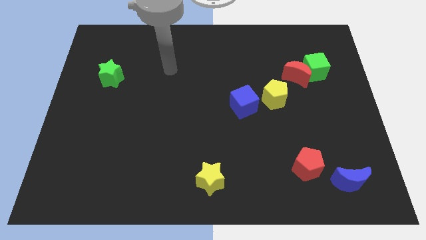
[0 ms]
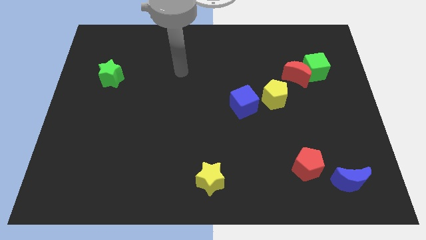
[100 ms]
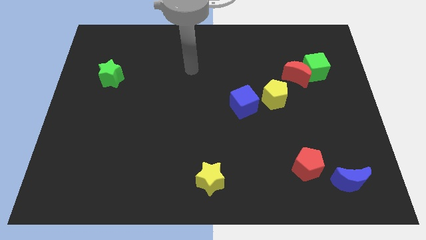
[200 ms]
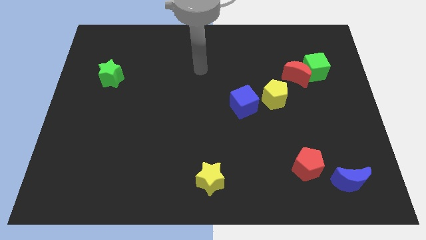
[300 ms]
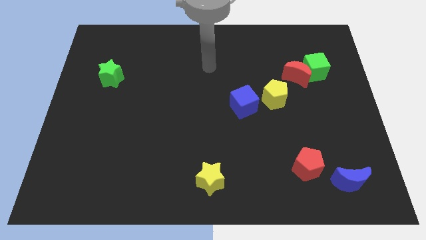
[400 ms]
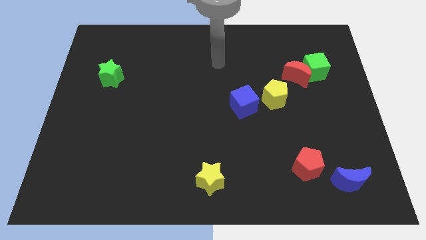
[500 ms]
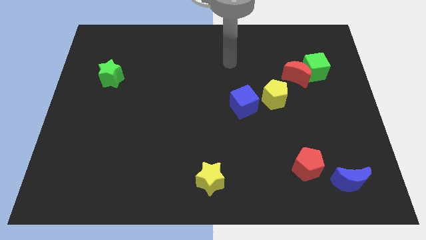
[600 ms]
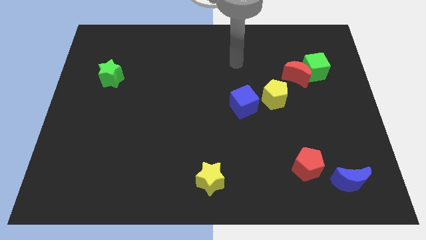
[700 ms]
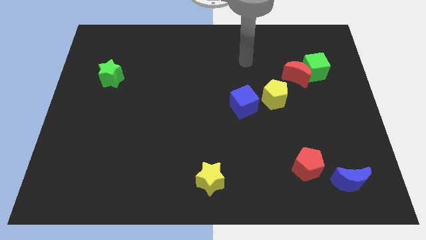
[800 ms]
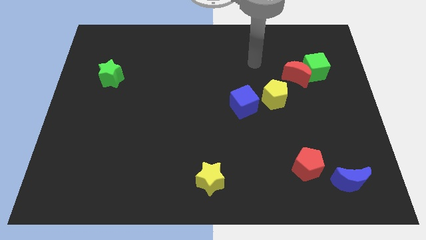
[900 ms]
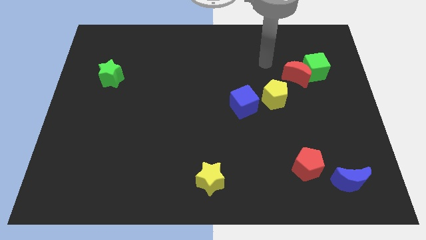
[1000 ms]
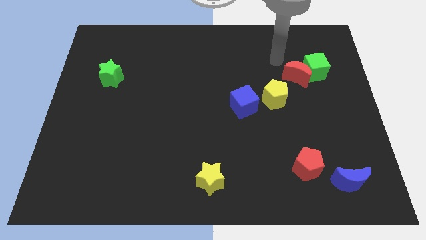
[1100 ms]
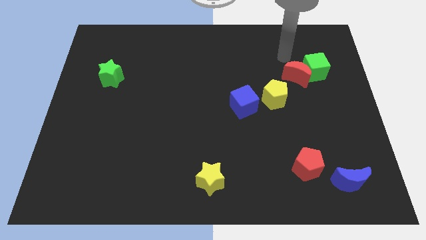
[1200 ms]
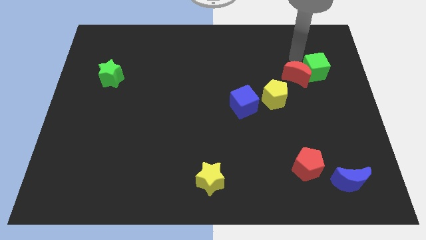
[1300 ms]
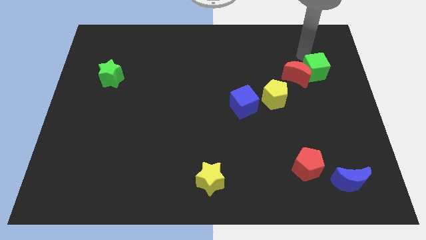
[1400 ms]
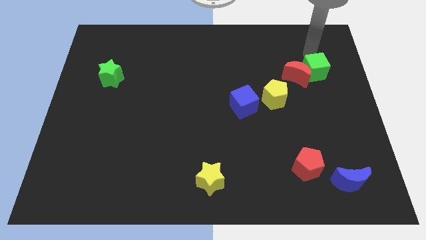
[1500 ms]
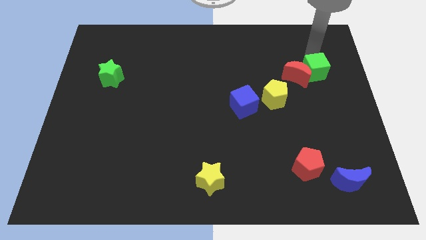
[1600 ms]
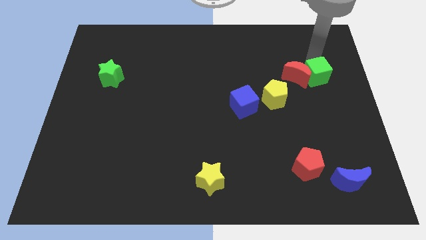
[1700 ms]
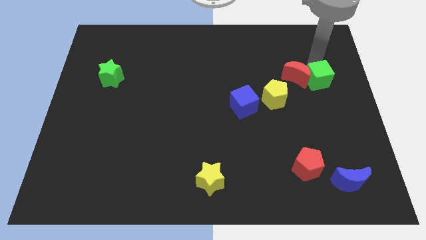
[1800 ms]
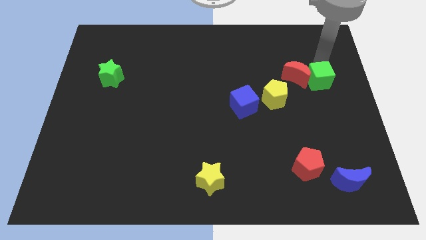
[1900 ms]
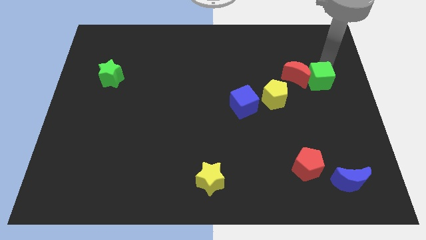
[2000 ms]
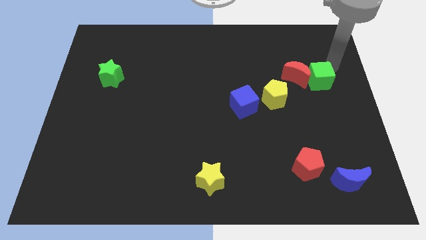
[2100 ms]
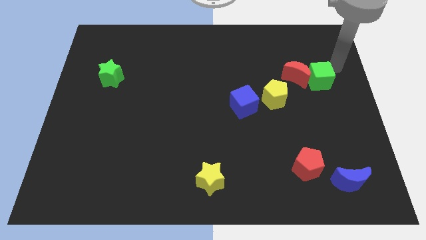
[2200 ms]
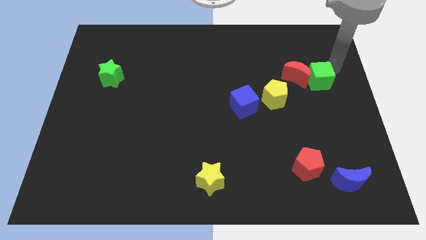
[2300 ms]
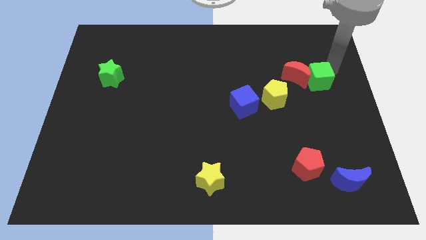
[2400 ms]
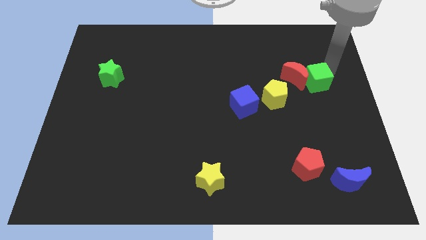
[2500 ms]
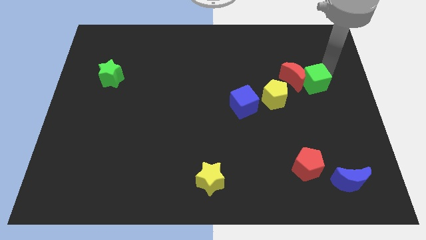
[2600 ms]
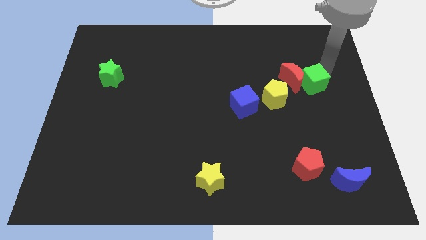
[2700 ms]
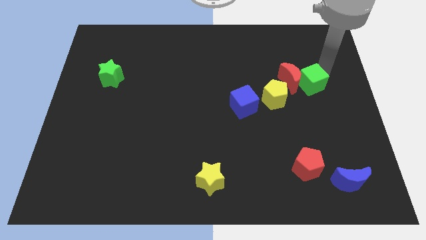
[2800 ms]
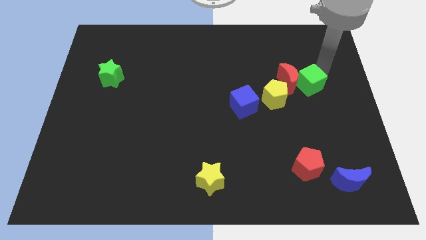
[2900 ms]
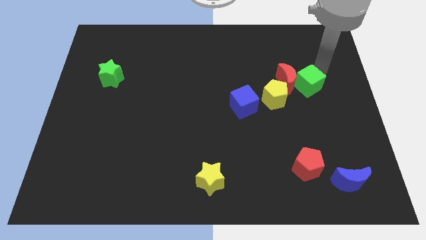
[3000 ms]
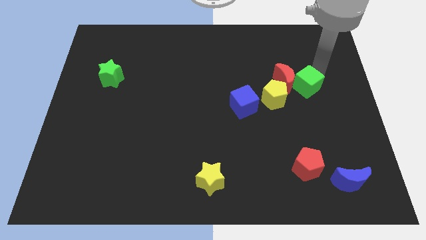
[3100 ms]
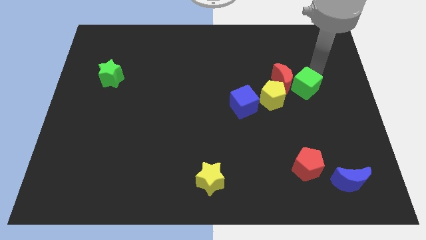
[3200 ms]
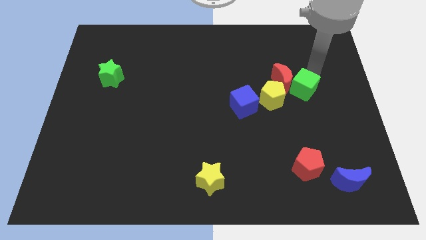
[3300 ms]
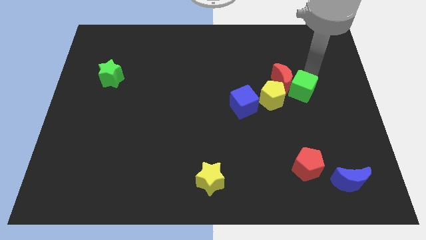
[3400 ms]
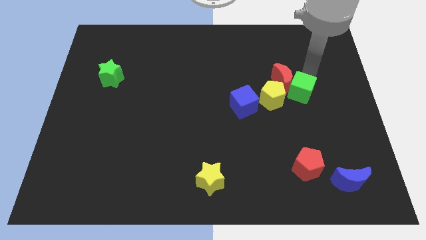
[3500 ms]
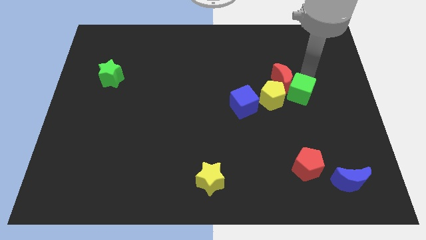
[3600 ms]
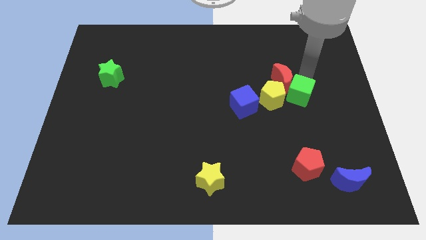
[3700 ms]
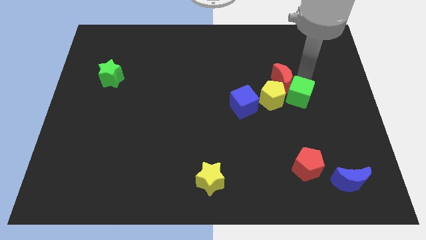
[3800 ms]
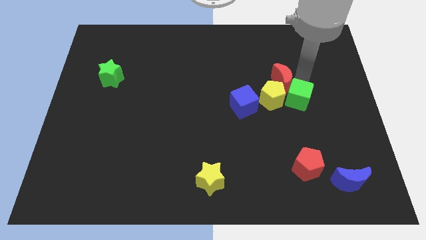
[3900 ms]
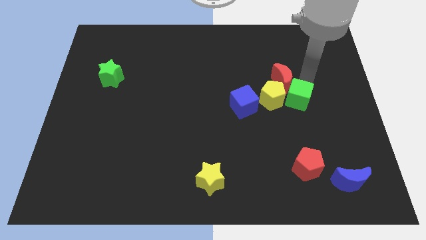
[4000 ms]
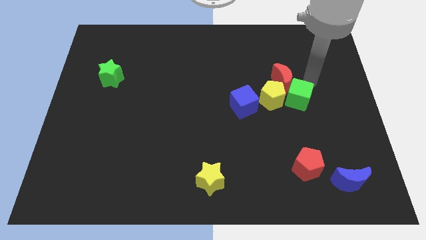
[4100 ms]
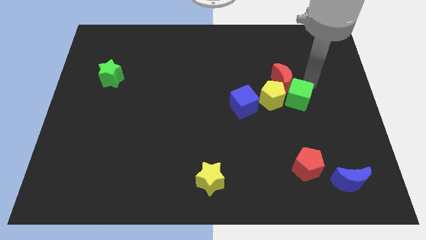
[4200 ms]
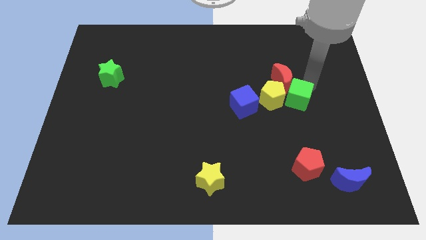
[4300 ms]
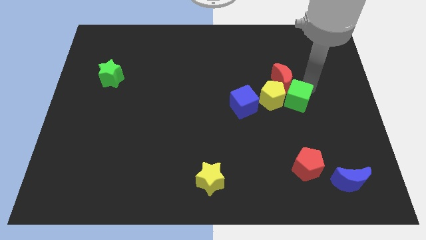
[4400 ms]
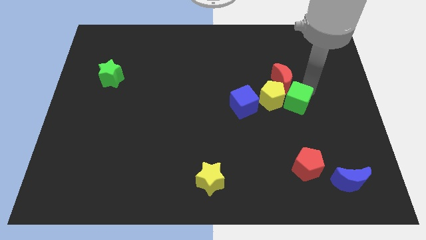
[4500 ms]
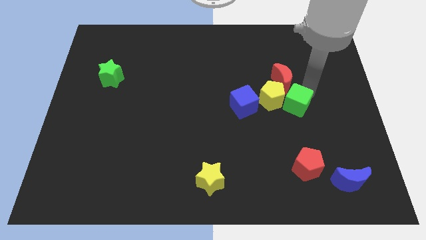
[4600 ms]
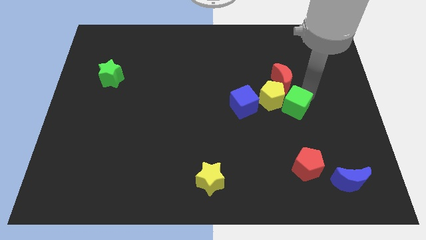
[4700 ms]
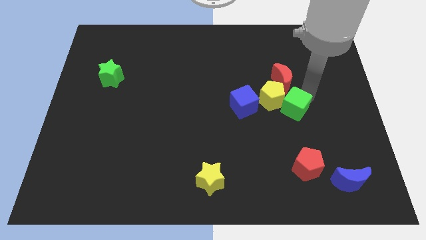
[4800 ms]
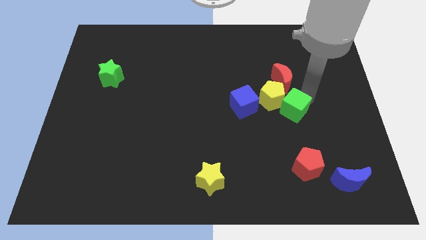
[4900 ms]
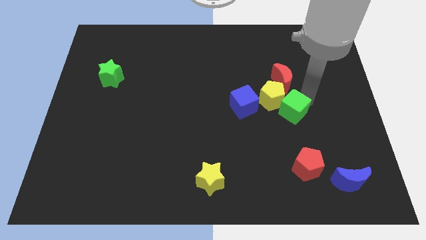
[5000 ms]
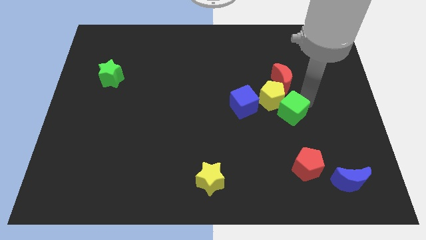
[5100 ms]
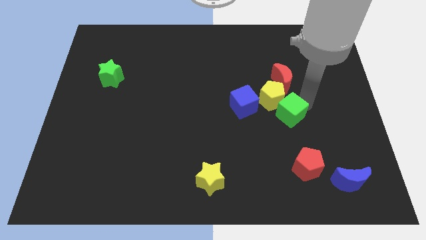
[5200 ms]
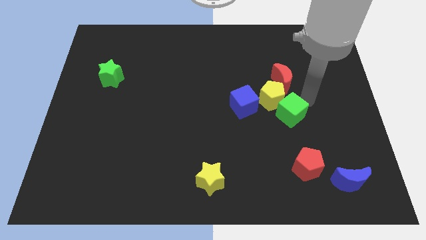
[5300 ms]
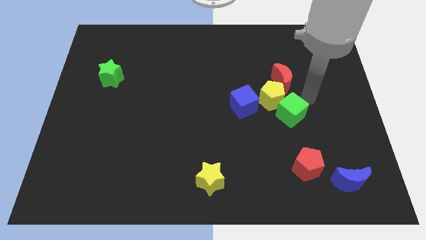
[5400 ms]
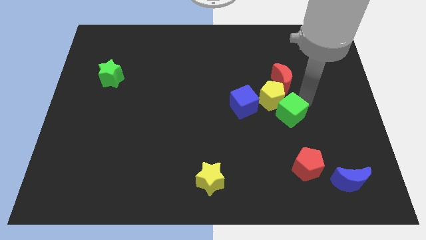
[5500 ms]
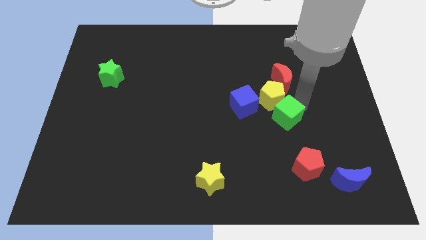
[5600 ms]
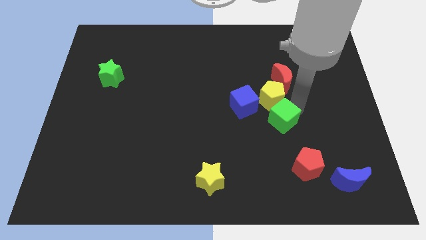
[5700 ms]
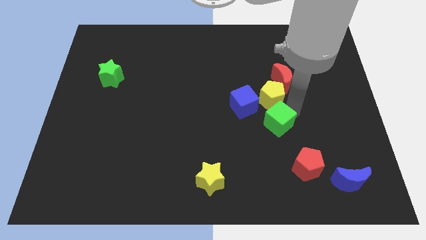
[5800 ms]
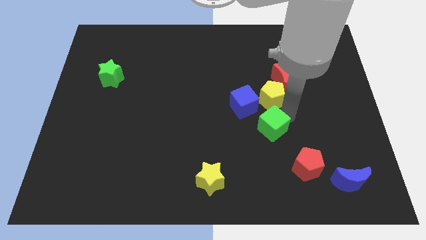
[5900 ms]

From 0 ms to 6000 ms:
move the green cube down and left diagonally

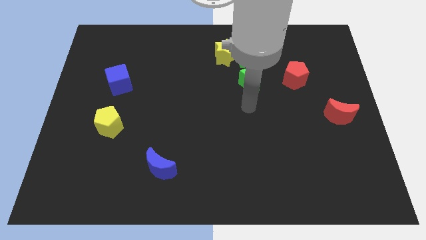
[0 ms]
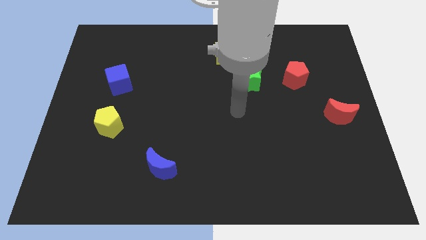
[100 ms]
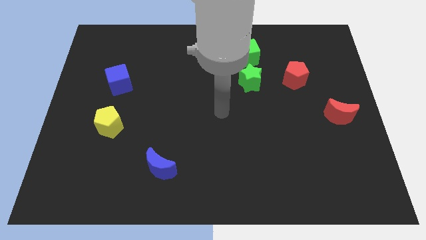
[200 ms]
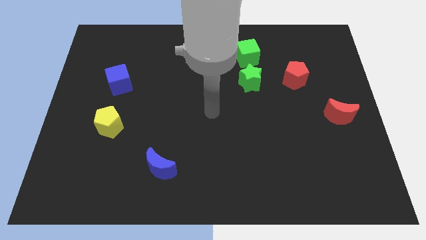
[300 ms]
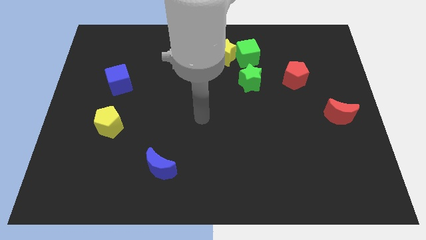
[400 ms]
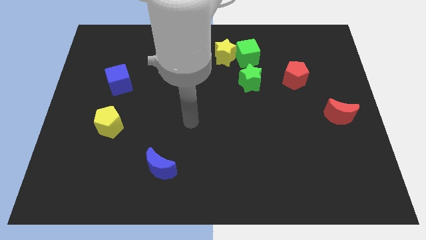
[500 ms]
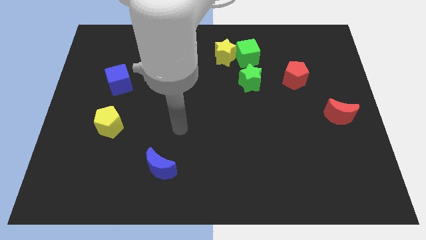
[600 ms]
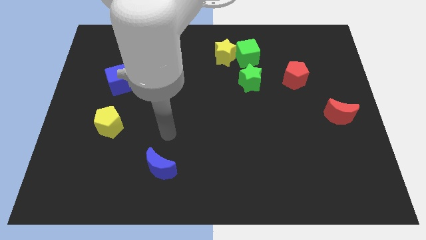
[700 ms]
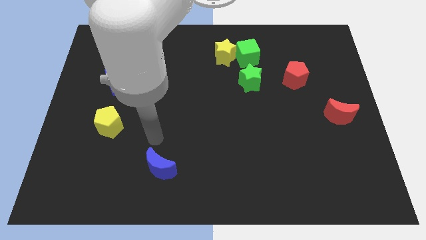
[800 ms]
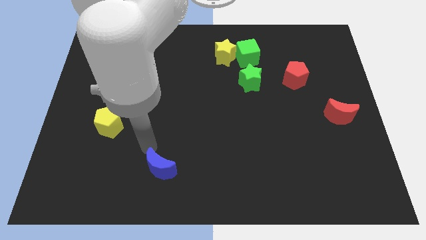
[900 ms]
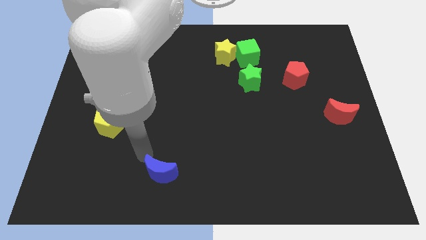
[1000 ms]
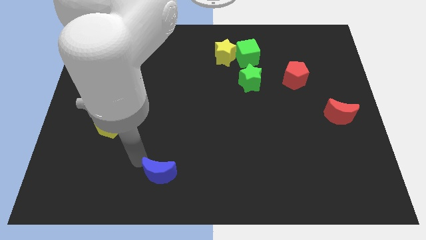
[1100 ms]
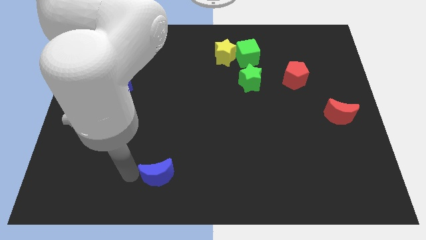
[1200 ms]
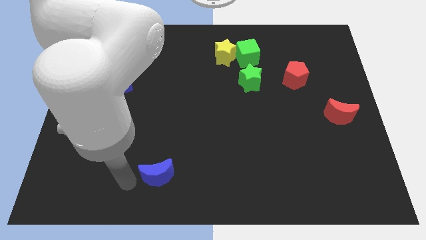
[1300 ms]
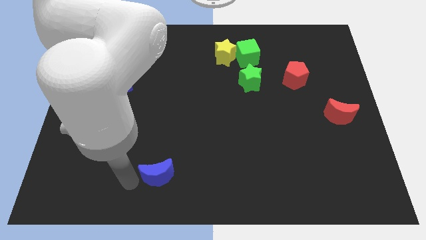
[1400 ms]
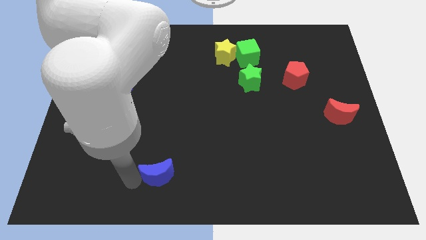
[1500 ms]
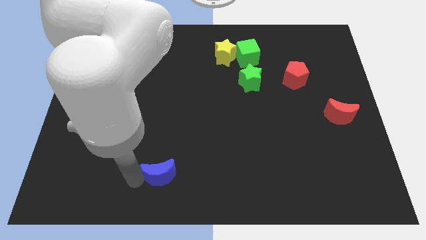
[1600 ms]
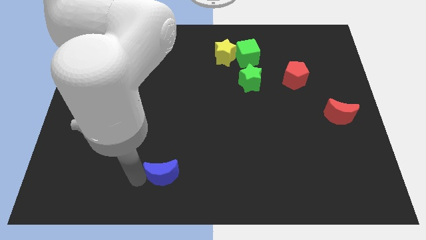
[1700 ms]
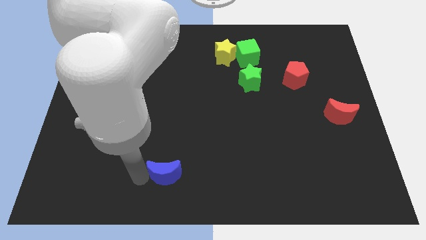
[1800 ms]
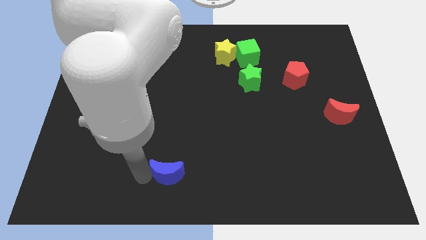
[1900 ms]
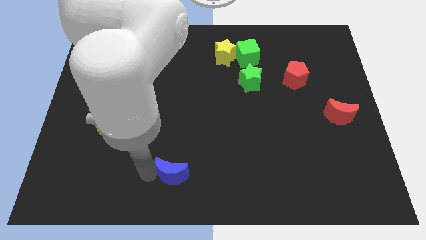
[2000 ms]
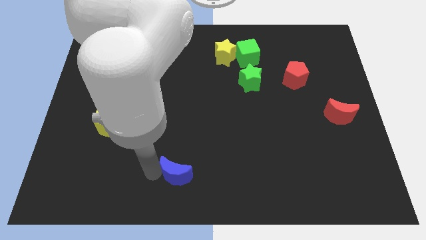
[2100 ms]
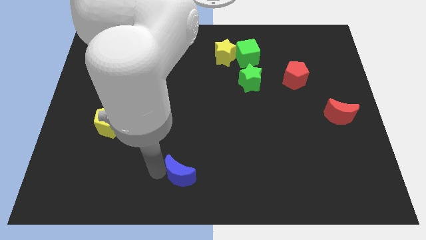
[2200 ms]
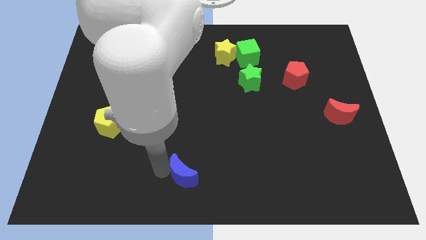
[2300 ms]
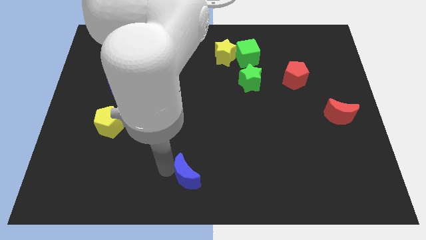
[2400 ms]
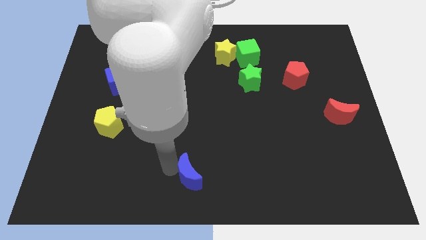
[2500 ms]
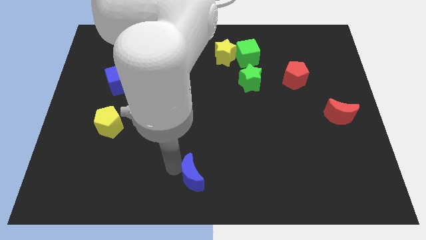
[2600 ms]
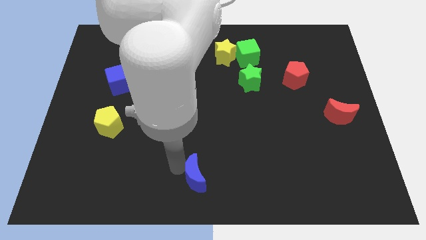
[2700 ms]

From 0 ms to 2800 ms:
push the blue moon right slightly
